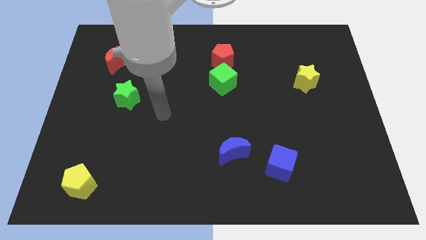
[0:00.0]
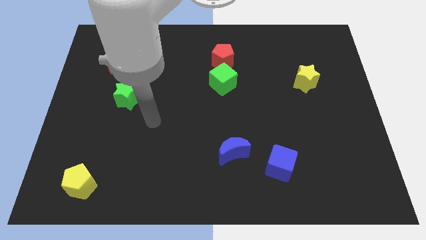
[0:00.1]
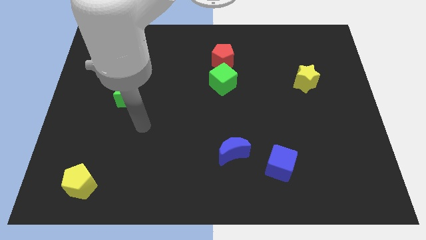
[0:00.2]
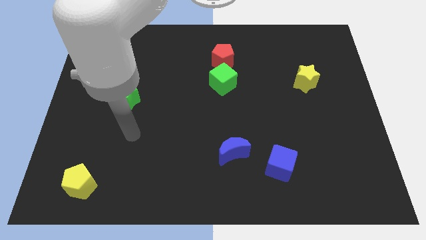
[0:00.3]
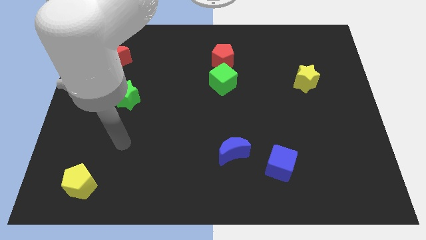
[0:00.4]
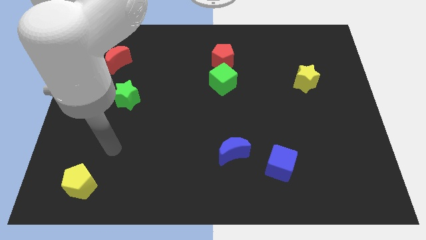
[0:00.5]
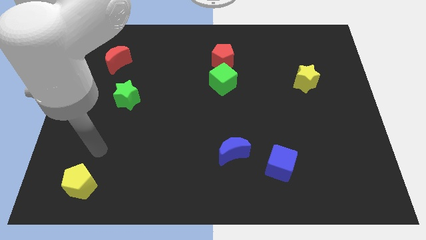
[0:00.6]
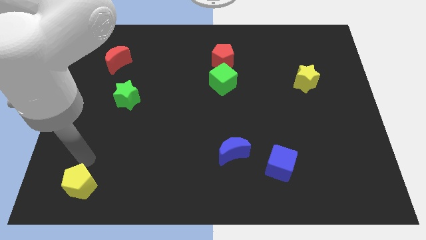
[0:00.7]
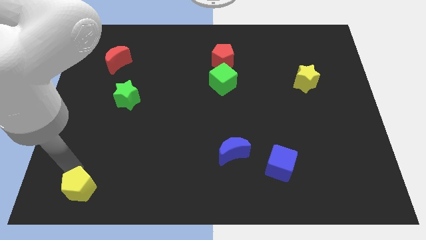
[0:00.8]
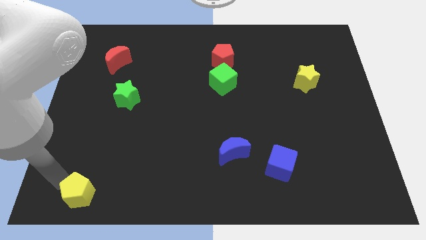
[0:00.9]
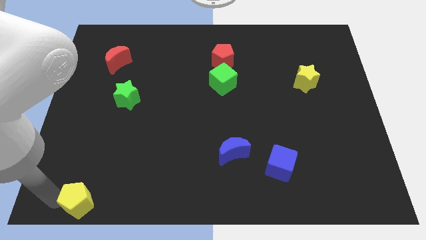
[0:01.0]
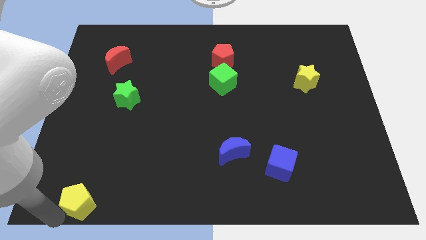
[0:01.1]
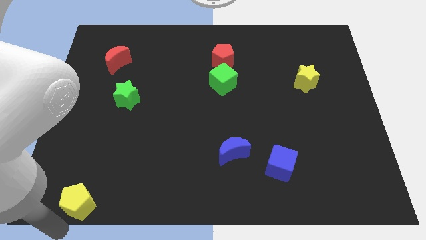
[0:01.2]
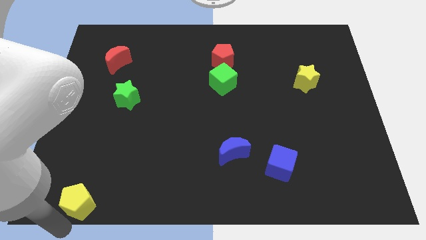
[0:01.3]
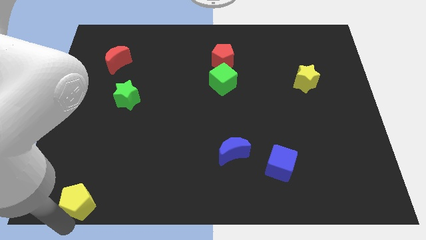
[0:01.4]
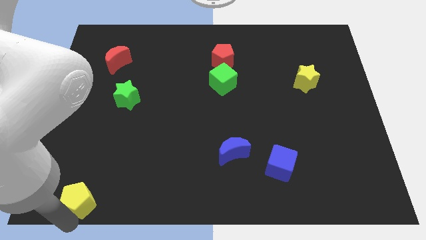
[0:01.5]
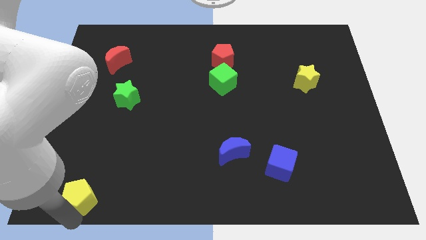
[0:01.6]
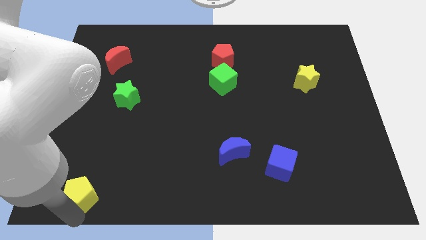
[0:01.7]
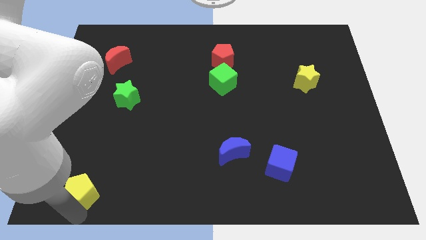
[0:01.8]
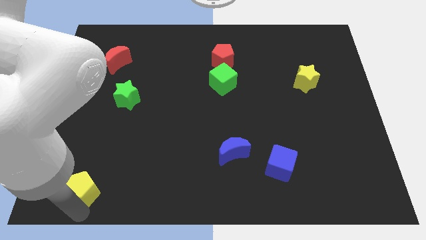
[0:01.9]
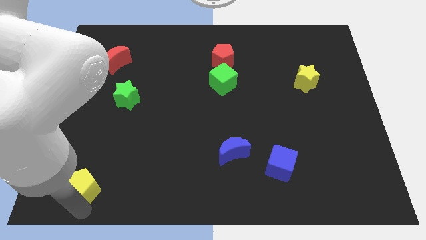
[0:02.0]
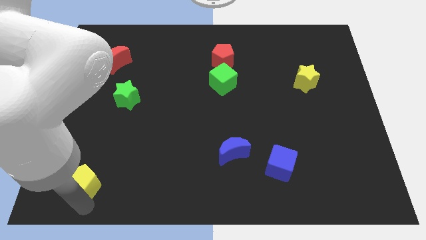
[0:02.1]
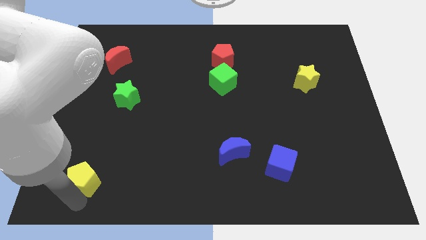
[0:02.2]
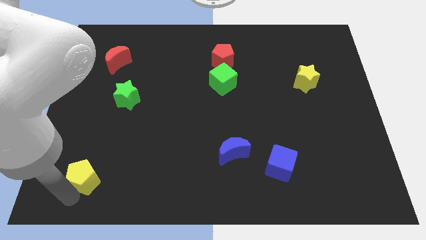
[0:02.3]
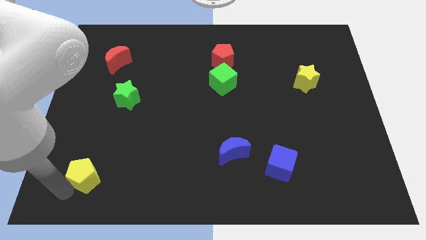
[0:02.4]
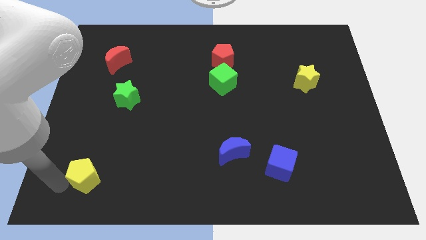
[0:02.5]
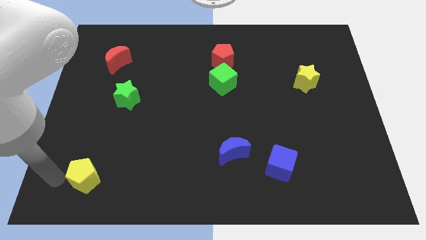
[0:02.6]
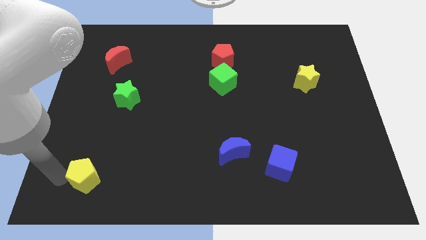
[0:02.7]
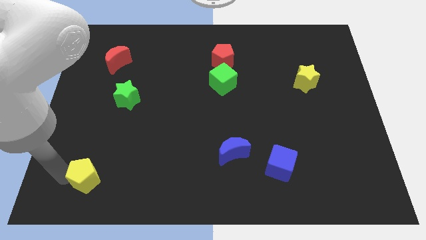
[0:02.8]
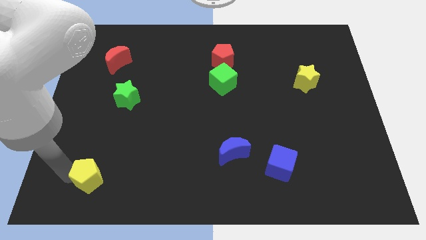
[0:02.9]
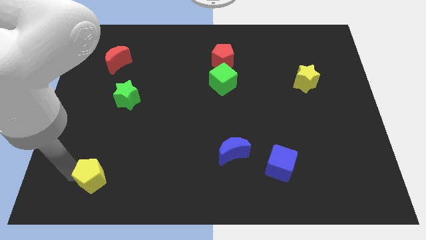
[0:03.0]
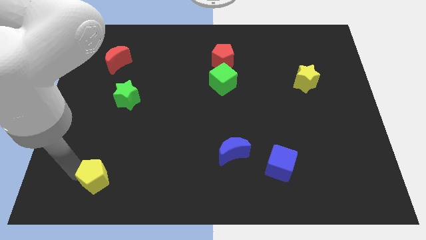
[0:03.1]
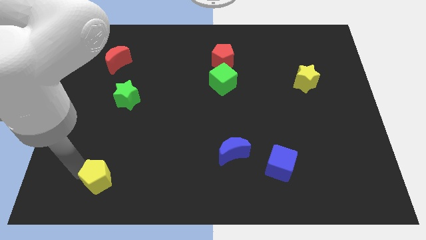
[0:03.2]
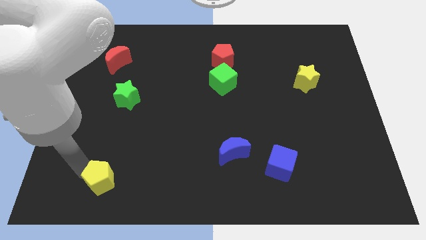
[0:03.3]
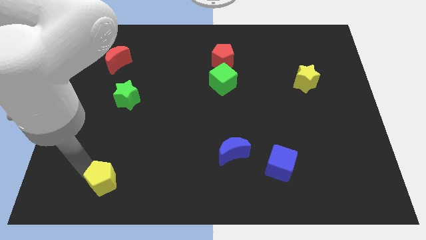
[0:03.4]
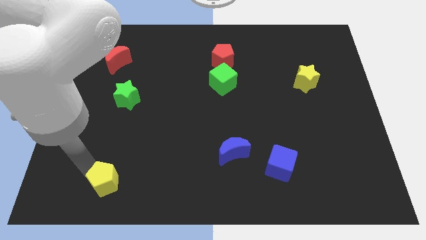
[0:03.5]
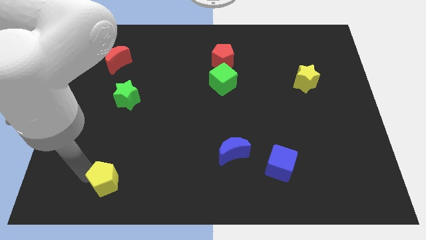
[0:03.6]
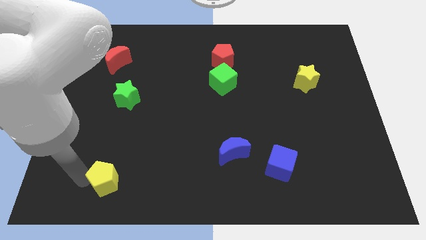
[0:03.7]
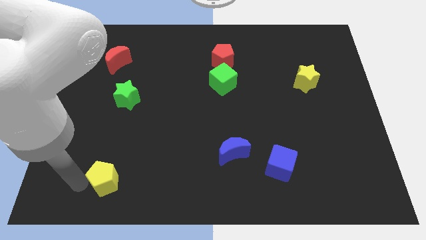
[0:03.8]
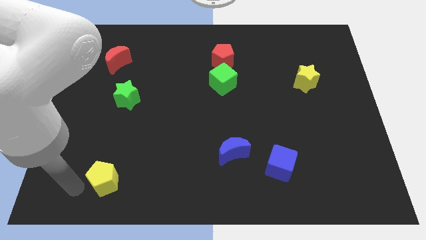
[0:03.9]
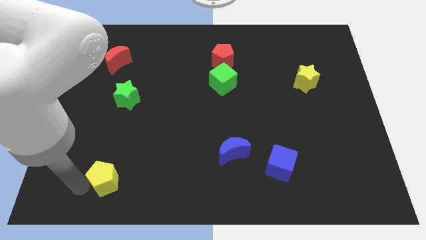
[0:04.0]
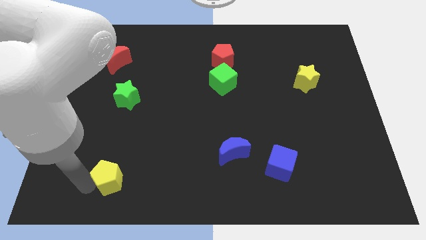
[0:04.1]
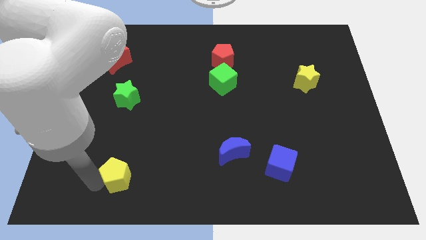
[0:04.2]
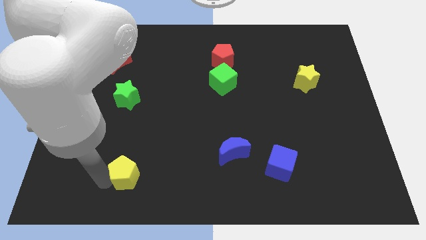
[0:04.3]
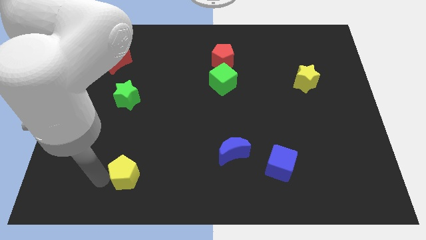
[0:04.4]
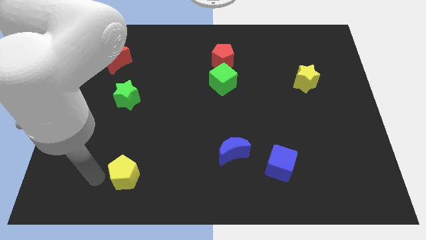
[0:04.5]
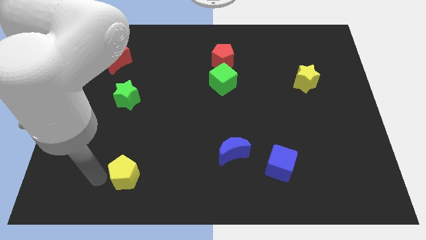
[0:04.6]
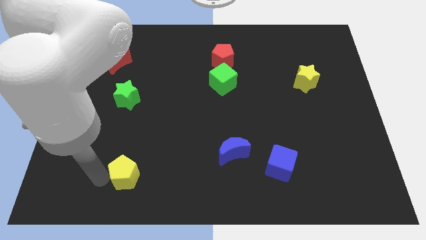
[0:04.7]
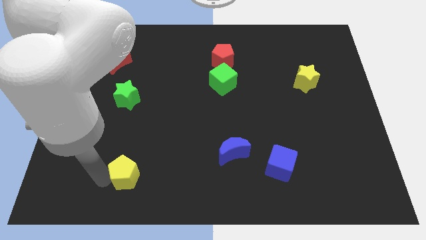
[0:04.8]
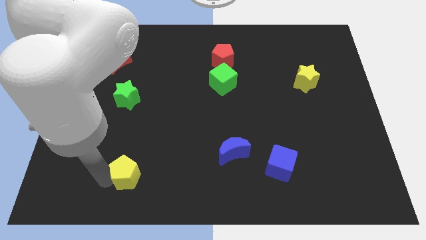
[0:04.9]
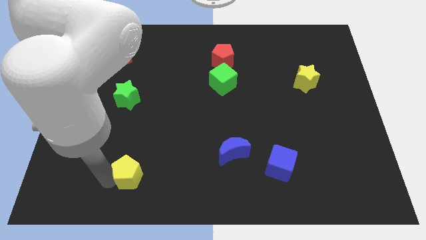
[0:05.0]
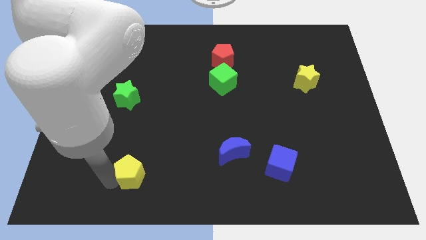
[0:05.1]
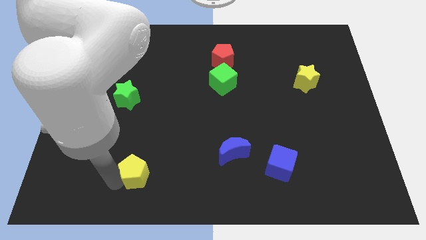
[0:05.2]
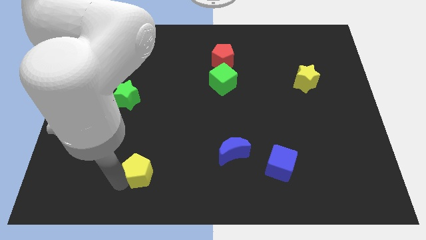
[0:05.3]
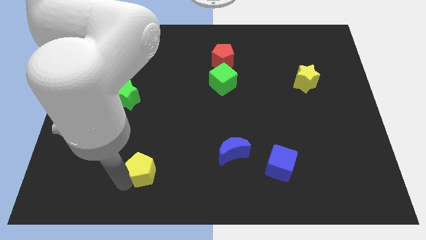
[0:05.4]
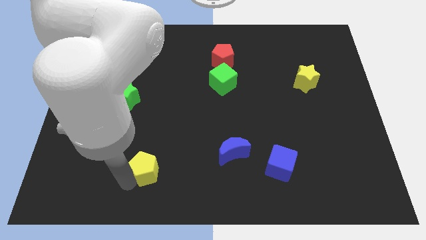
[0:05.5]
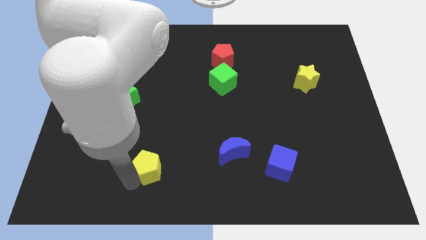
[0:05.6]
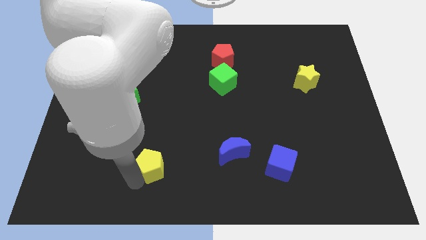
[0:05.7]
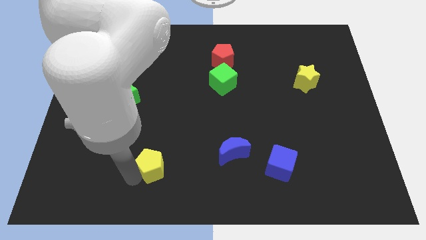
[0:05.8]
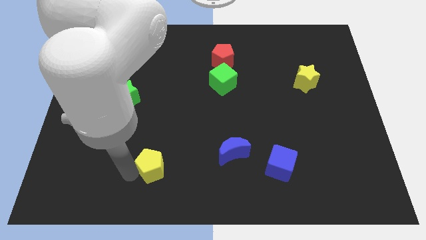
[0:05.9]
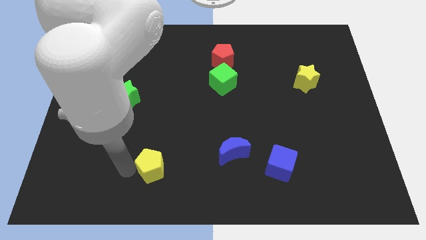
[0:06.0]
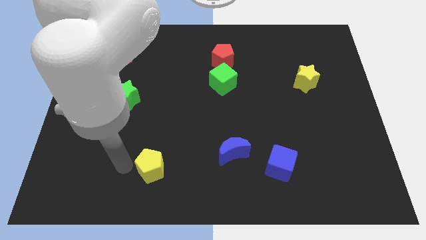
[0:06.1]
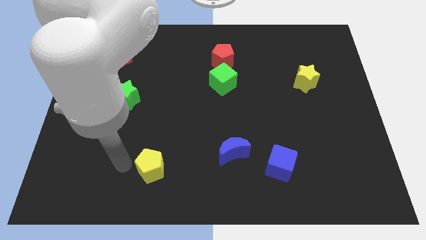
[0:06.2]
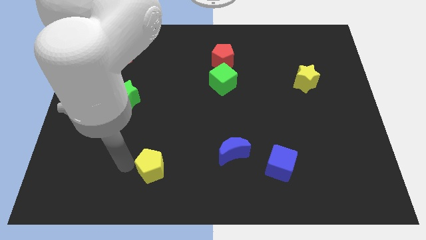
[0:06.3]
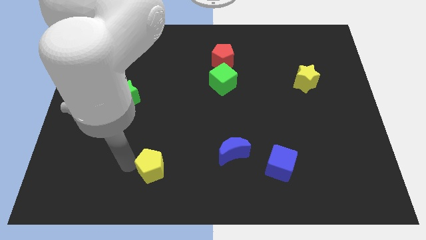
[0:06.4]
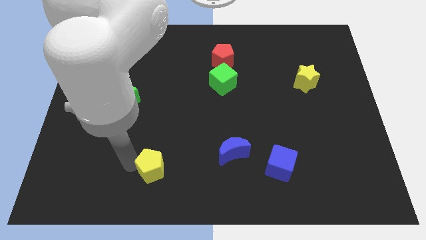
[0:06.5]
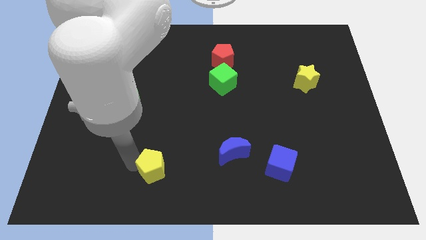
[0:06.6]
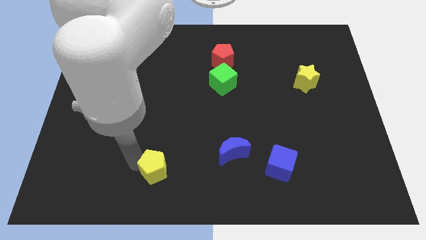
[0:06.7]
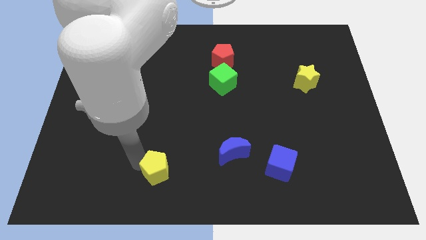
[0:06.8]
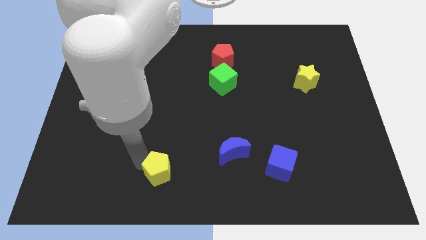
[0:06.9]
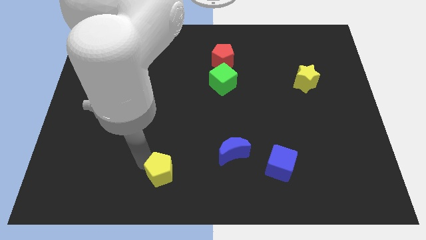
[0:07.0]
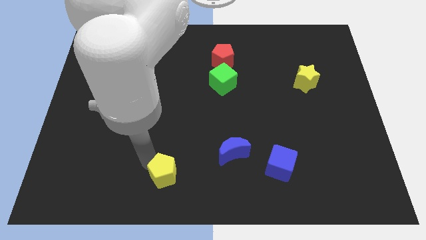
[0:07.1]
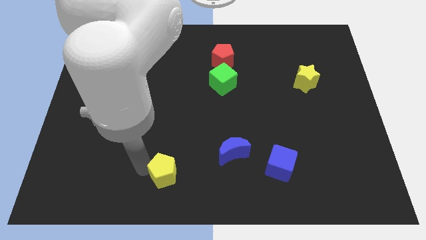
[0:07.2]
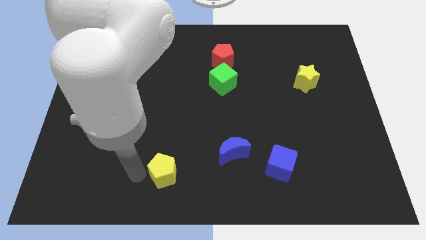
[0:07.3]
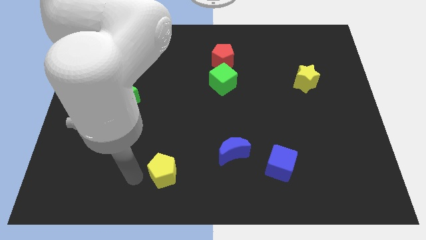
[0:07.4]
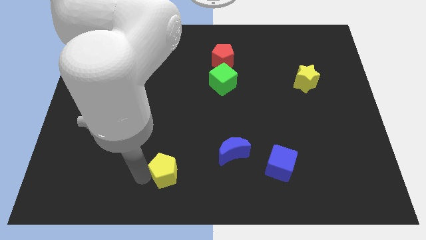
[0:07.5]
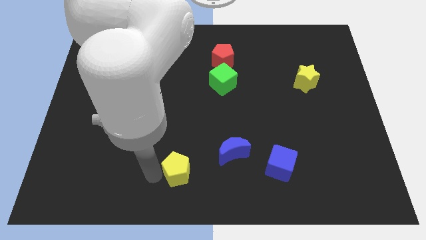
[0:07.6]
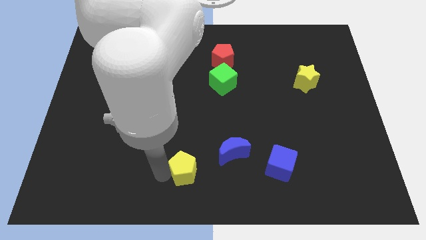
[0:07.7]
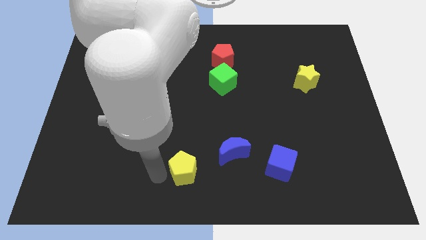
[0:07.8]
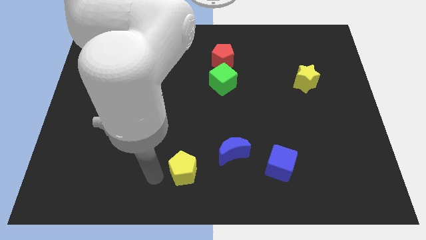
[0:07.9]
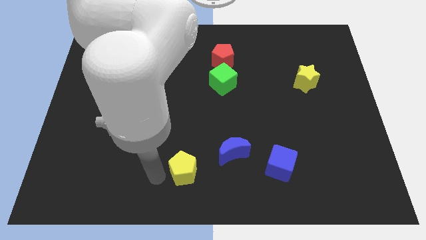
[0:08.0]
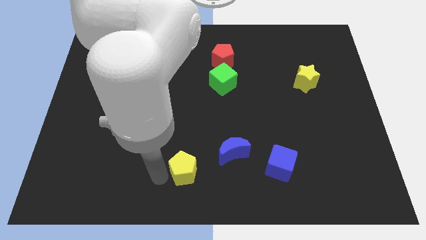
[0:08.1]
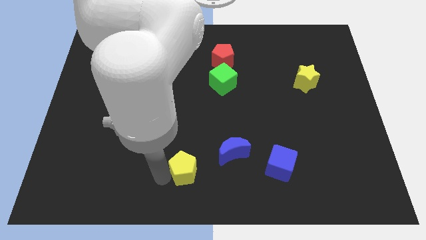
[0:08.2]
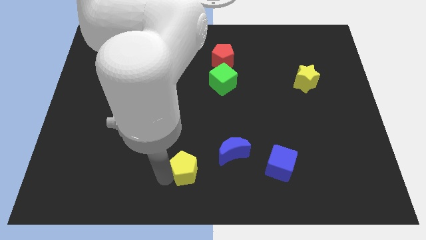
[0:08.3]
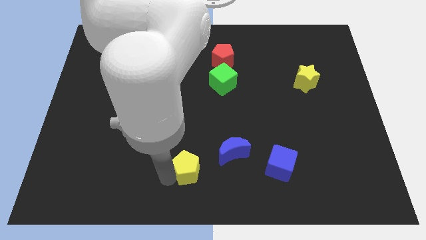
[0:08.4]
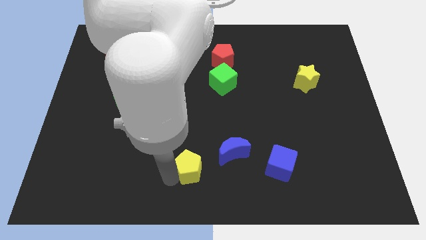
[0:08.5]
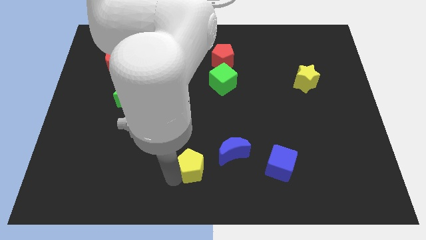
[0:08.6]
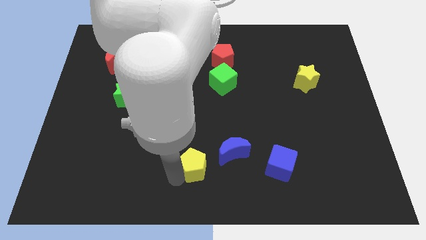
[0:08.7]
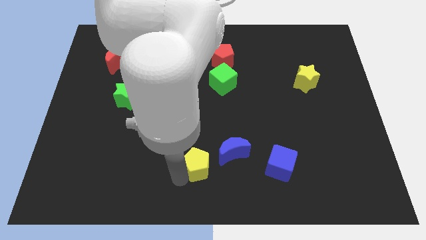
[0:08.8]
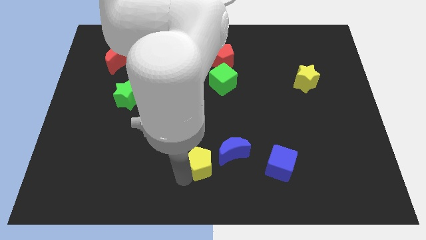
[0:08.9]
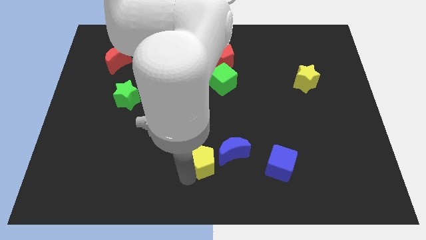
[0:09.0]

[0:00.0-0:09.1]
move the yellow pentagon to the left of the blue cube
